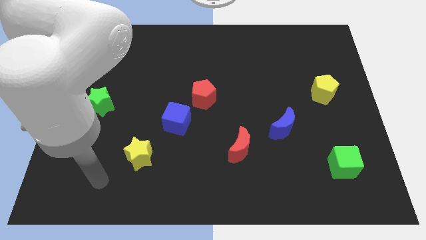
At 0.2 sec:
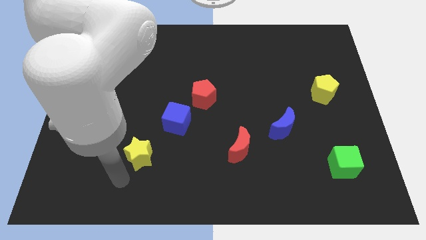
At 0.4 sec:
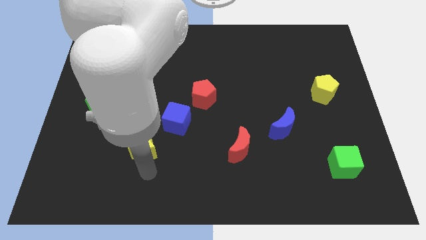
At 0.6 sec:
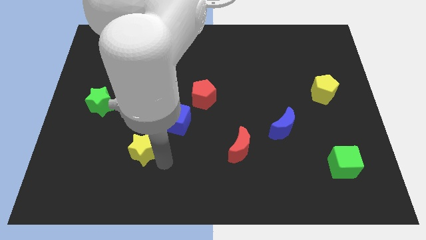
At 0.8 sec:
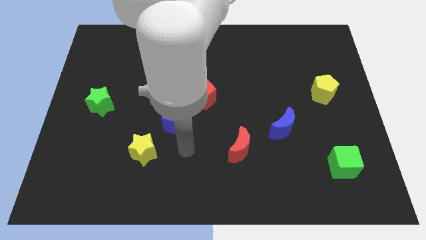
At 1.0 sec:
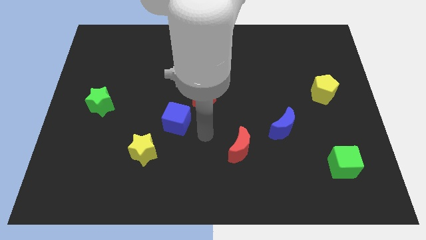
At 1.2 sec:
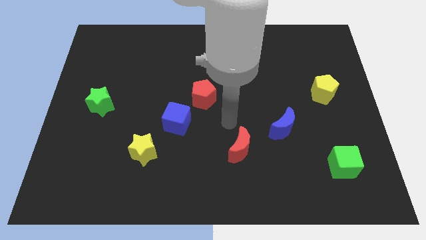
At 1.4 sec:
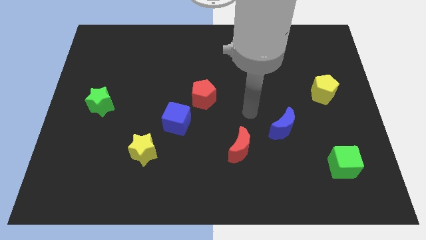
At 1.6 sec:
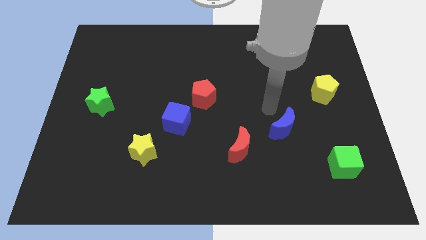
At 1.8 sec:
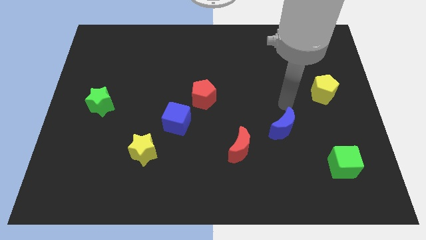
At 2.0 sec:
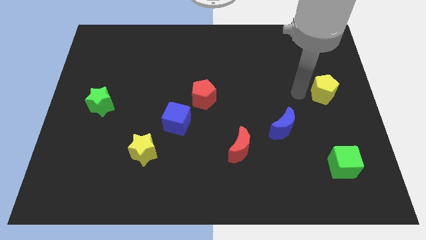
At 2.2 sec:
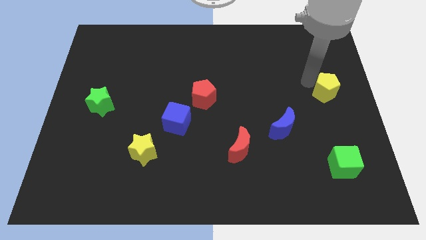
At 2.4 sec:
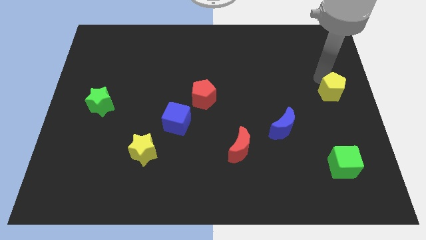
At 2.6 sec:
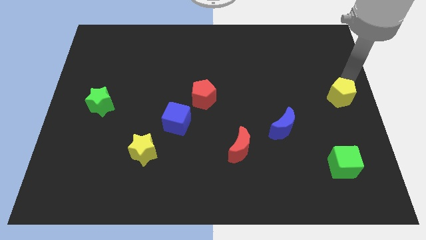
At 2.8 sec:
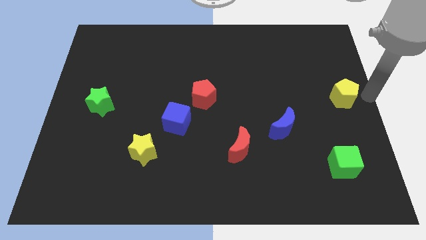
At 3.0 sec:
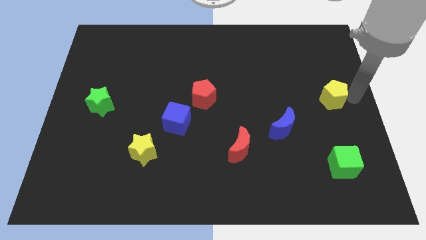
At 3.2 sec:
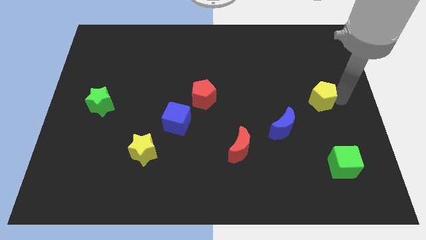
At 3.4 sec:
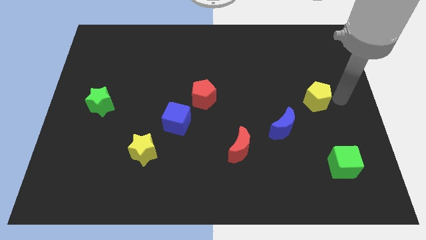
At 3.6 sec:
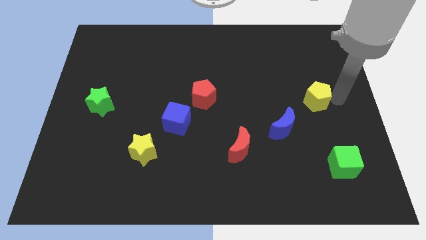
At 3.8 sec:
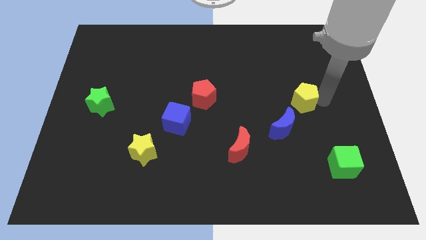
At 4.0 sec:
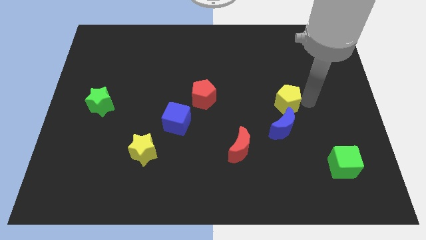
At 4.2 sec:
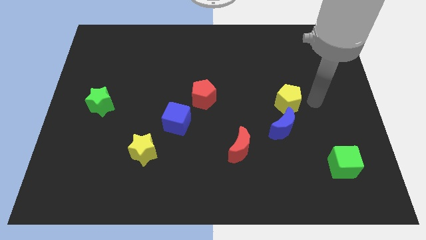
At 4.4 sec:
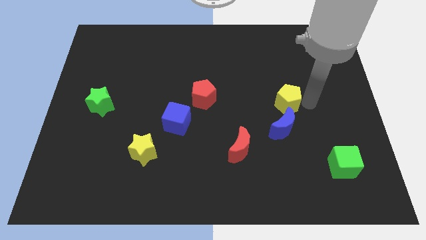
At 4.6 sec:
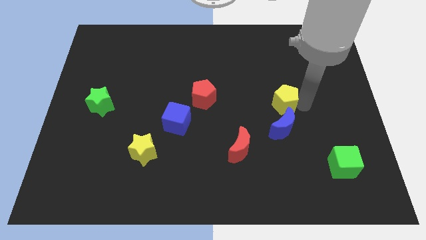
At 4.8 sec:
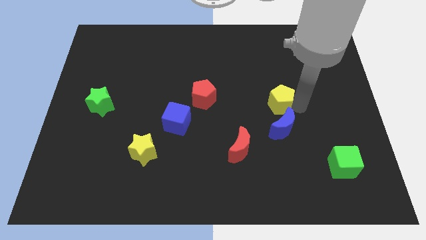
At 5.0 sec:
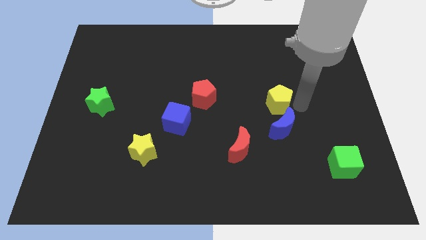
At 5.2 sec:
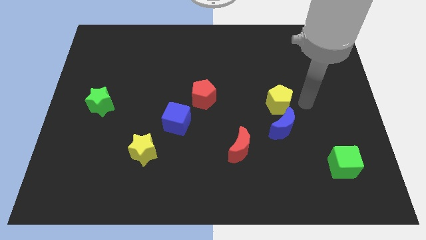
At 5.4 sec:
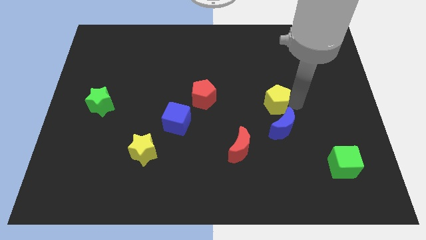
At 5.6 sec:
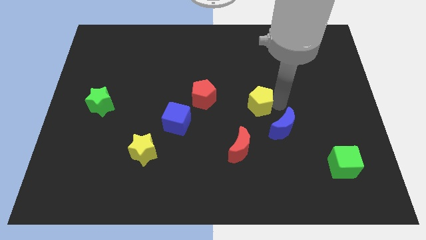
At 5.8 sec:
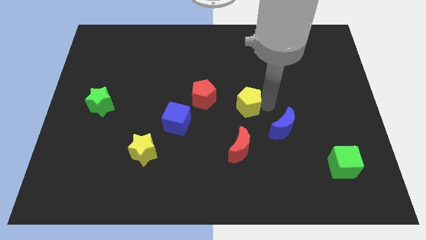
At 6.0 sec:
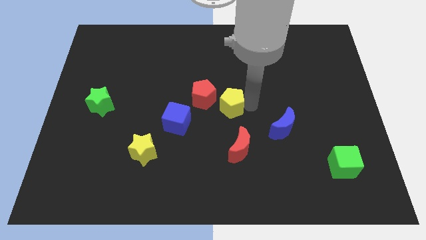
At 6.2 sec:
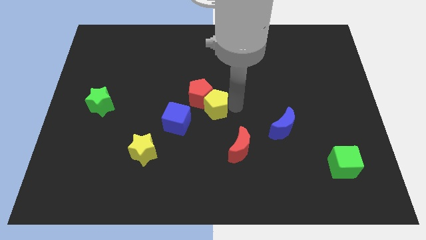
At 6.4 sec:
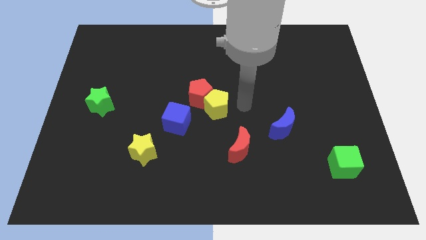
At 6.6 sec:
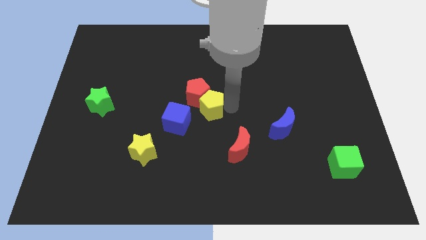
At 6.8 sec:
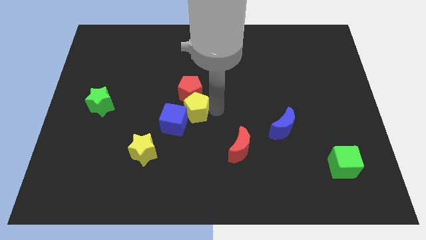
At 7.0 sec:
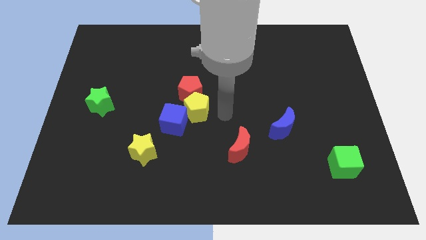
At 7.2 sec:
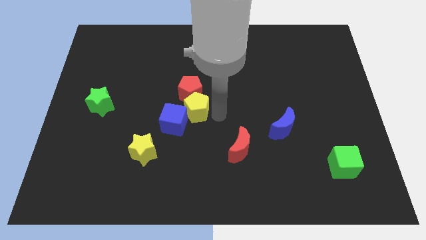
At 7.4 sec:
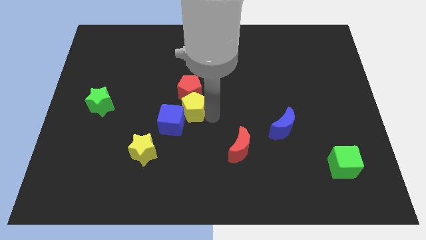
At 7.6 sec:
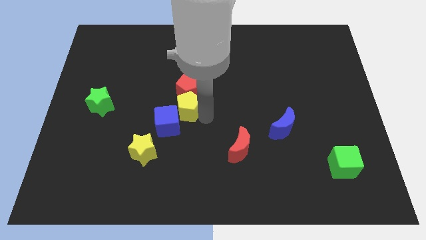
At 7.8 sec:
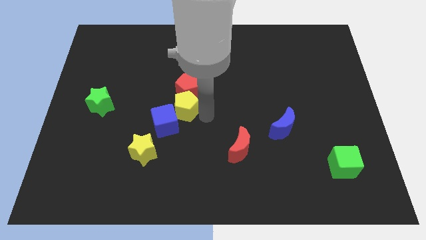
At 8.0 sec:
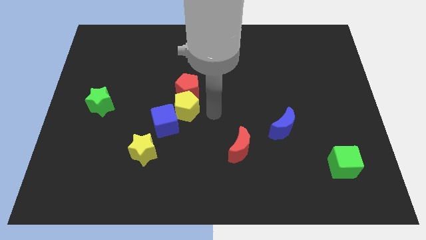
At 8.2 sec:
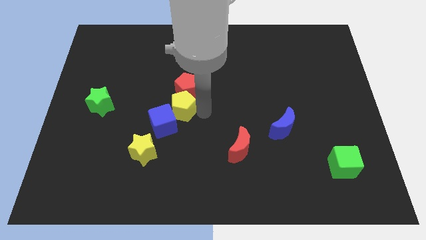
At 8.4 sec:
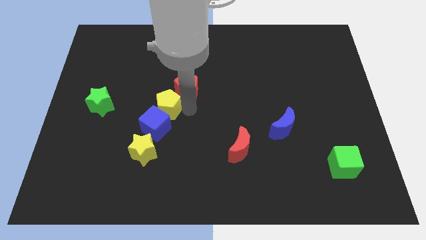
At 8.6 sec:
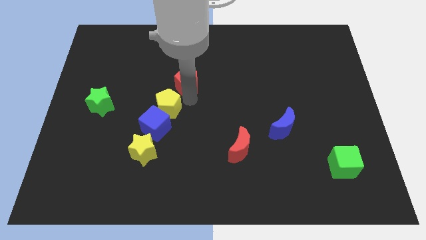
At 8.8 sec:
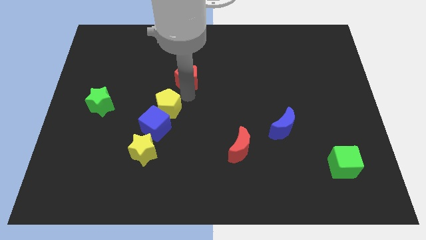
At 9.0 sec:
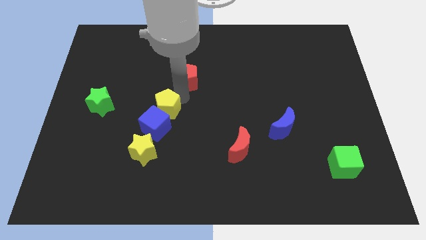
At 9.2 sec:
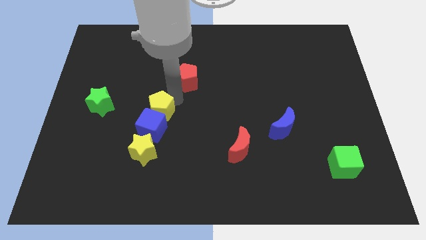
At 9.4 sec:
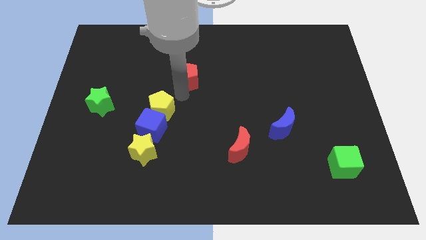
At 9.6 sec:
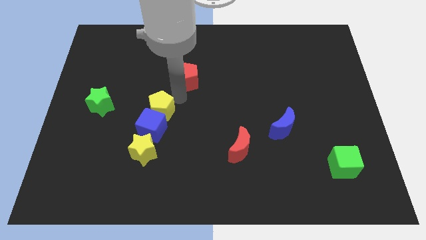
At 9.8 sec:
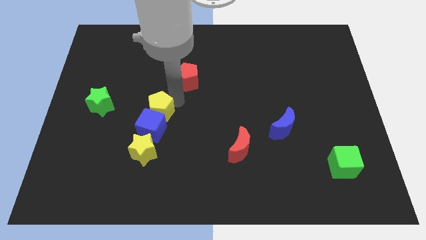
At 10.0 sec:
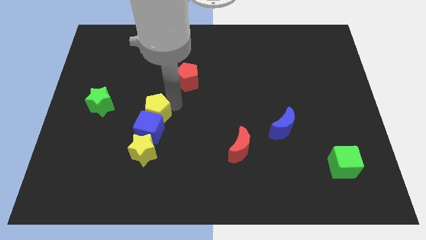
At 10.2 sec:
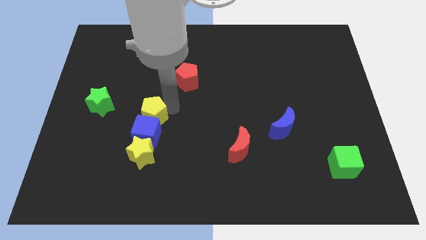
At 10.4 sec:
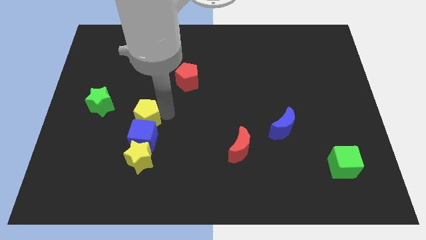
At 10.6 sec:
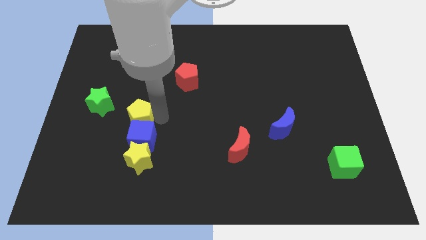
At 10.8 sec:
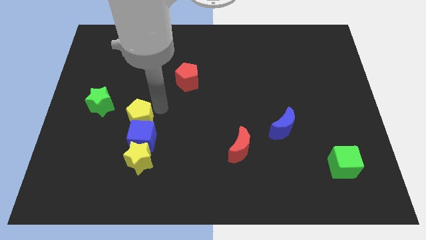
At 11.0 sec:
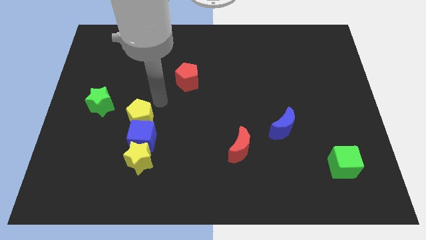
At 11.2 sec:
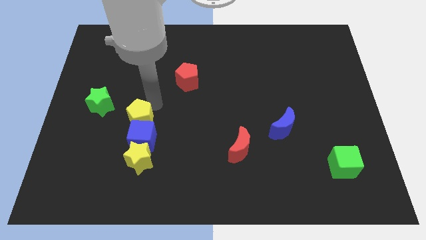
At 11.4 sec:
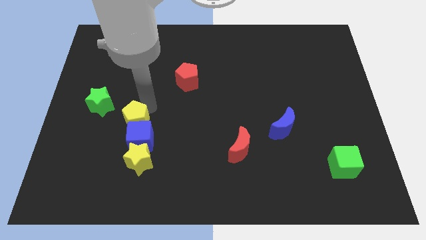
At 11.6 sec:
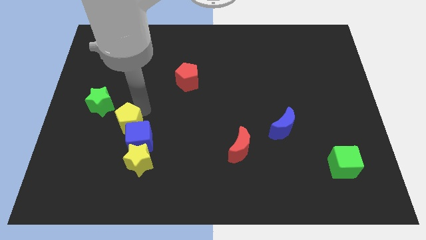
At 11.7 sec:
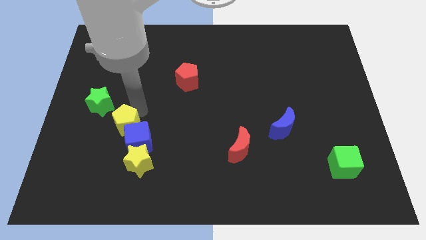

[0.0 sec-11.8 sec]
push the yellow pentagon diagonally up and to the left of the yellow star

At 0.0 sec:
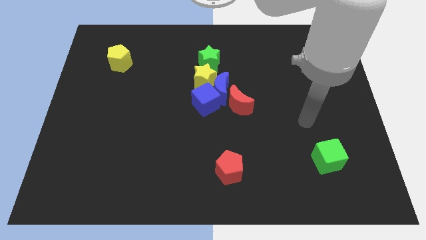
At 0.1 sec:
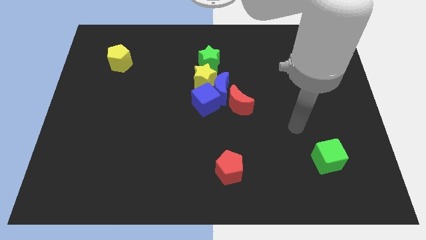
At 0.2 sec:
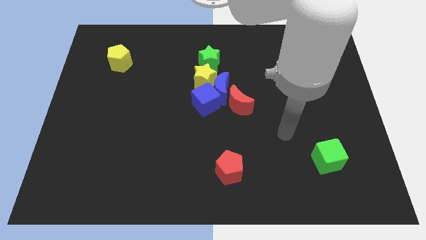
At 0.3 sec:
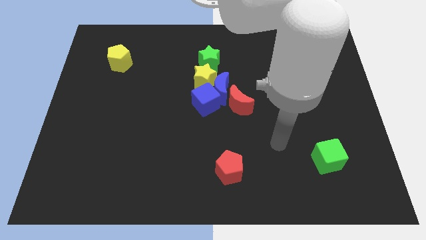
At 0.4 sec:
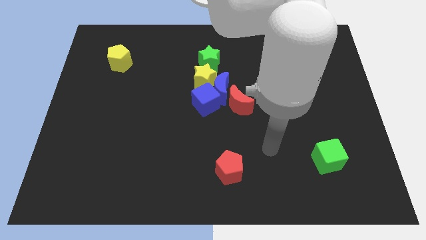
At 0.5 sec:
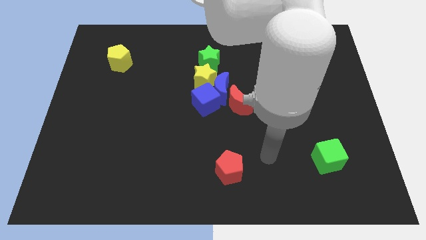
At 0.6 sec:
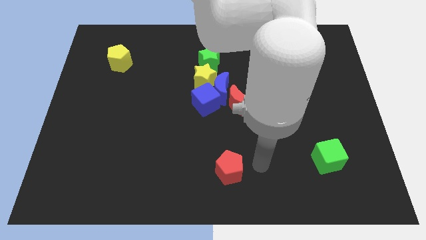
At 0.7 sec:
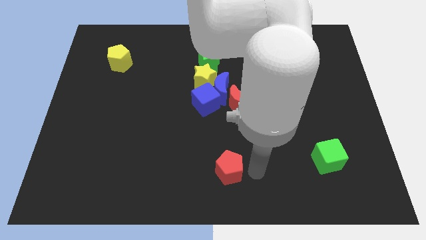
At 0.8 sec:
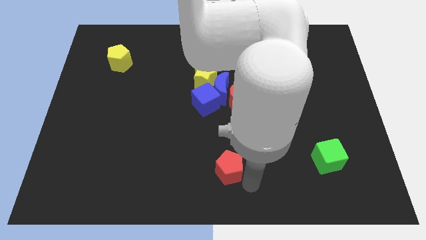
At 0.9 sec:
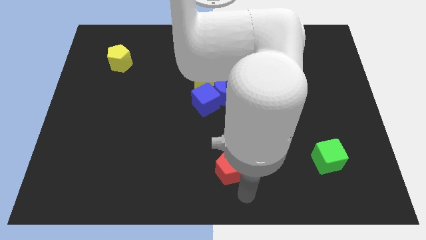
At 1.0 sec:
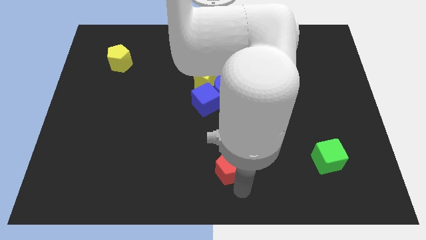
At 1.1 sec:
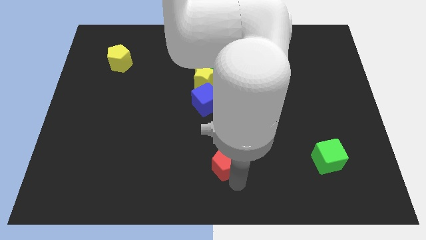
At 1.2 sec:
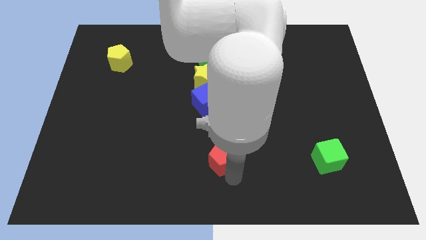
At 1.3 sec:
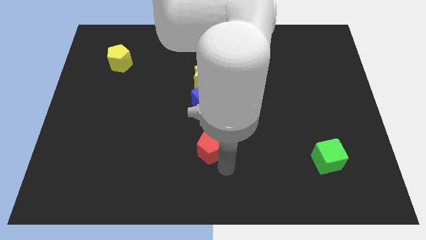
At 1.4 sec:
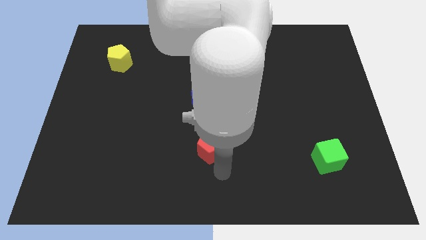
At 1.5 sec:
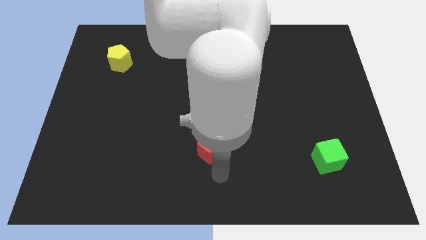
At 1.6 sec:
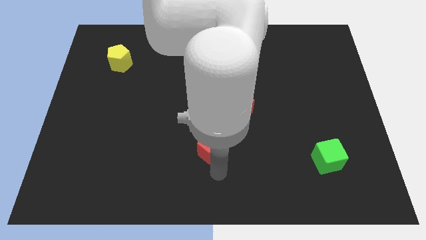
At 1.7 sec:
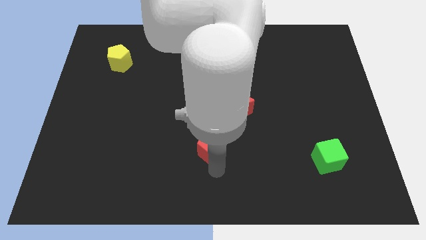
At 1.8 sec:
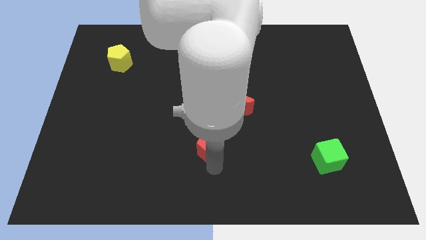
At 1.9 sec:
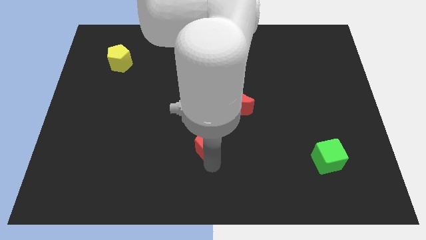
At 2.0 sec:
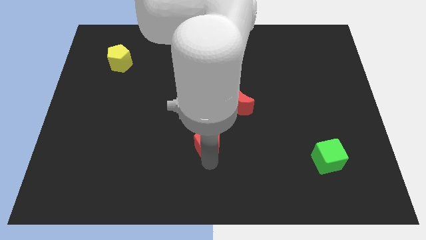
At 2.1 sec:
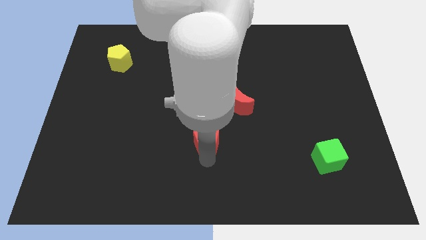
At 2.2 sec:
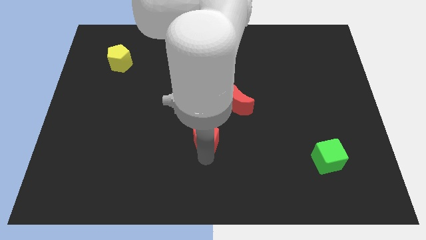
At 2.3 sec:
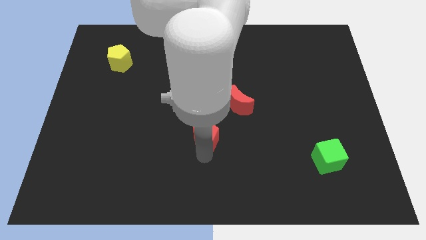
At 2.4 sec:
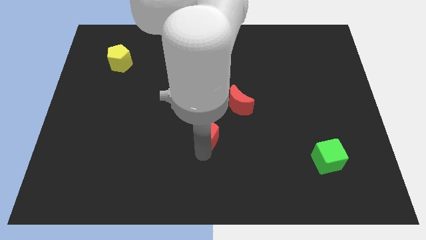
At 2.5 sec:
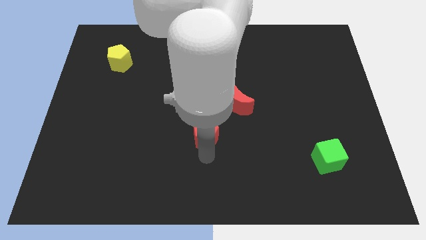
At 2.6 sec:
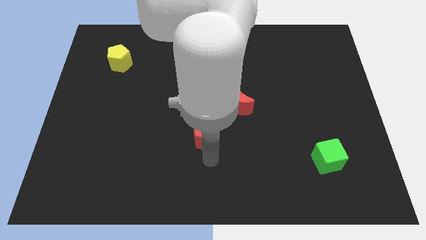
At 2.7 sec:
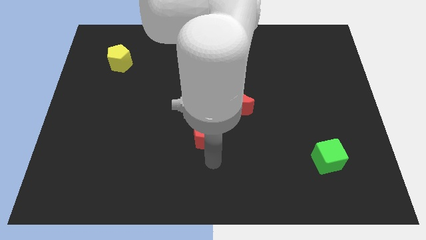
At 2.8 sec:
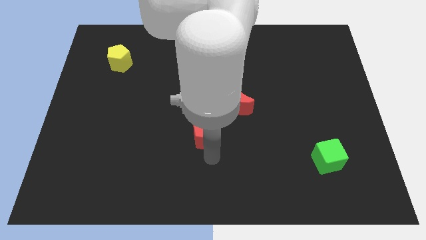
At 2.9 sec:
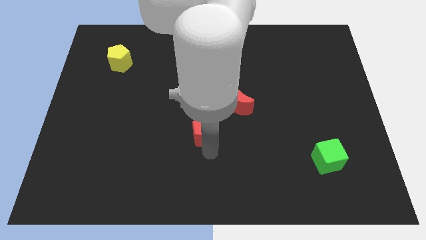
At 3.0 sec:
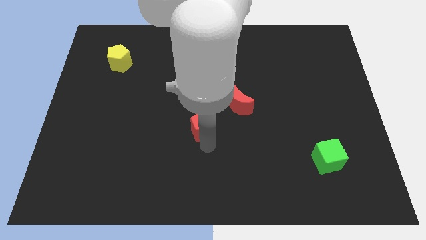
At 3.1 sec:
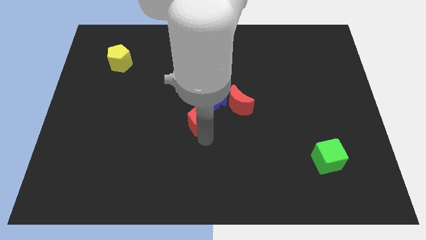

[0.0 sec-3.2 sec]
slide the red pentagon to the bottom left side of the blue moon
